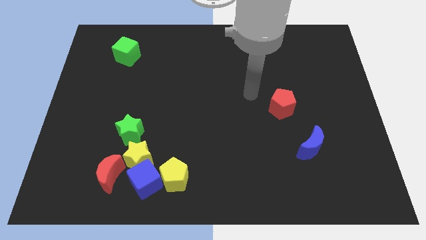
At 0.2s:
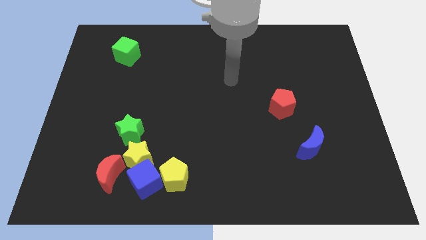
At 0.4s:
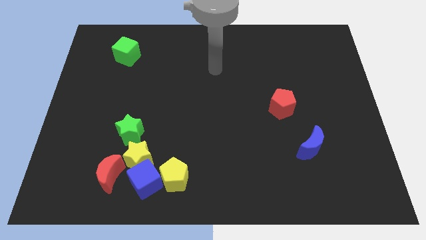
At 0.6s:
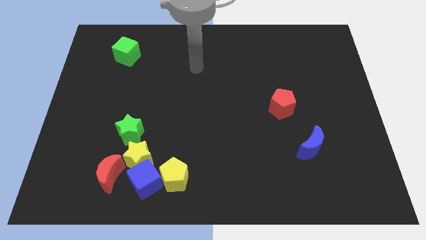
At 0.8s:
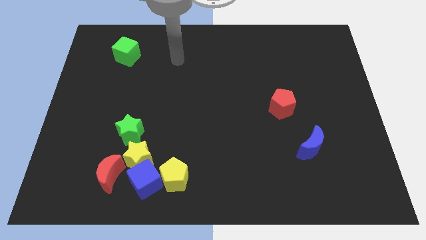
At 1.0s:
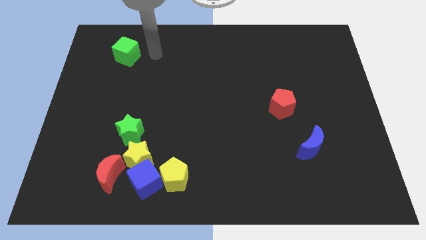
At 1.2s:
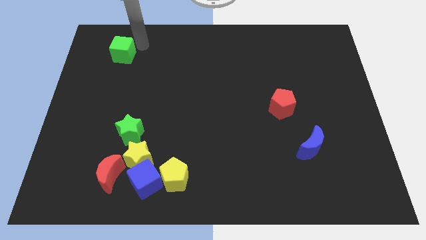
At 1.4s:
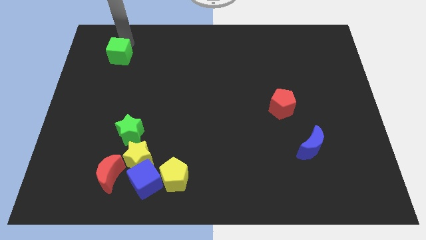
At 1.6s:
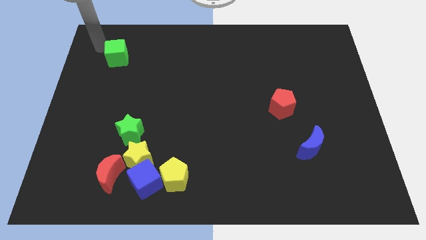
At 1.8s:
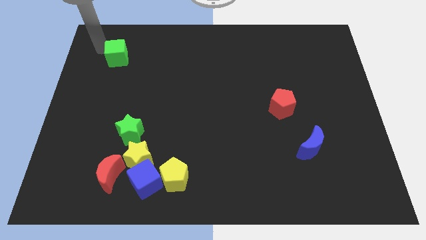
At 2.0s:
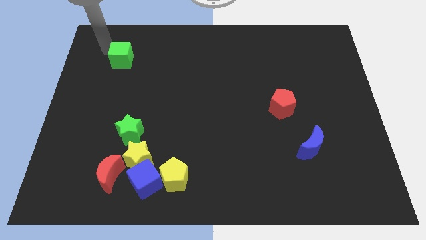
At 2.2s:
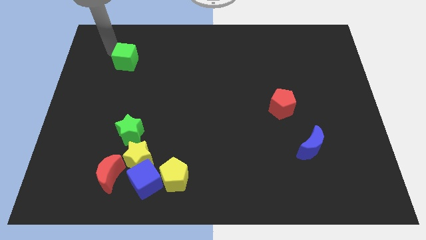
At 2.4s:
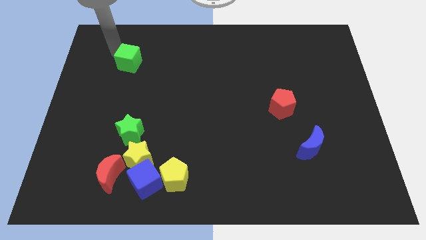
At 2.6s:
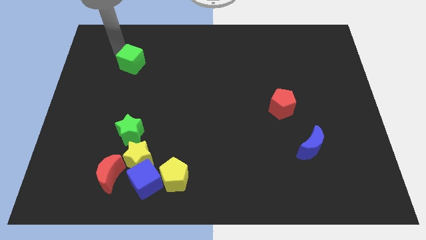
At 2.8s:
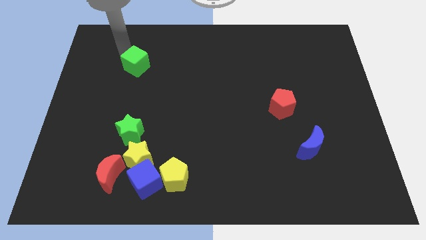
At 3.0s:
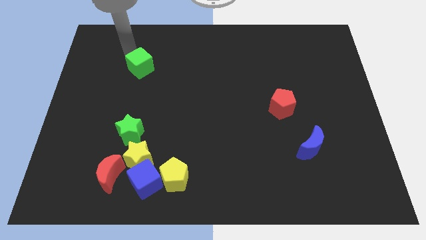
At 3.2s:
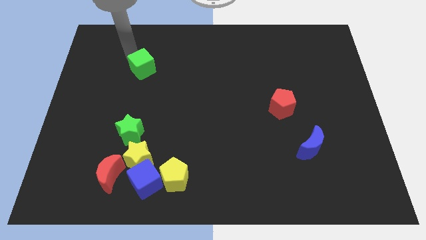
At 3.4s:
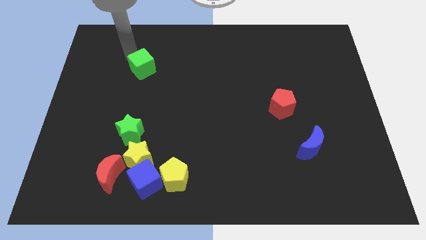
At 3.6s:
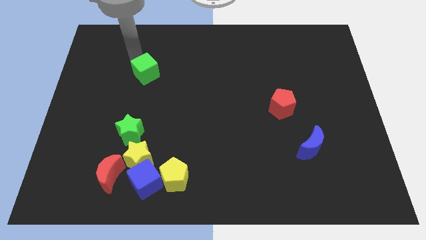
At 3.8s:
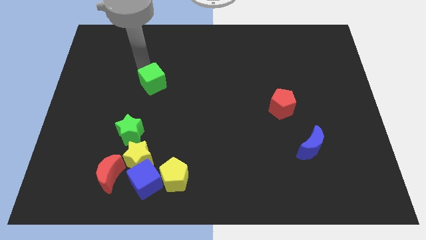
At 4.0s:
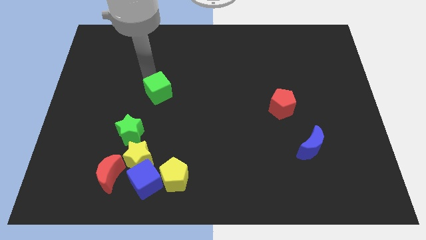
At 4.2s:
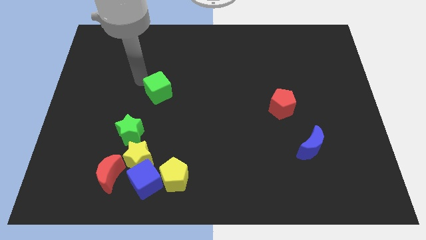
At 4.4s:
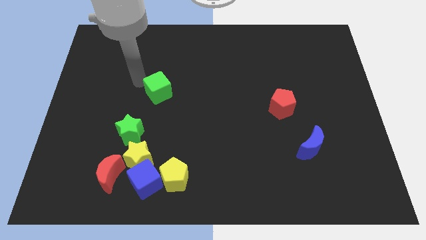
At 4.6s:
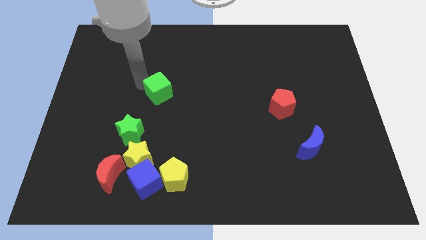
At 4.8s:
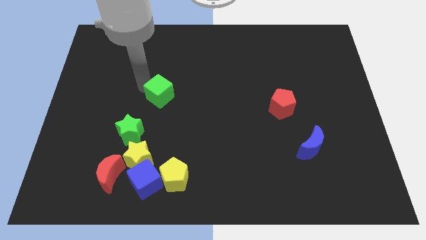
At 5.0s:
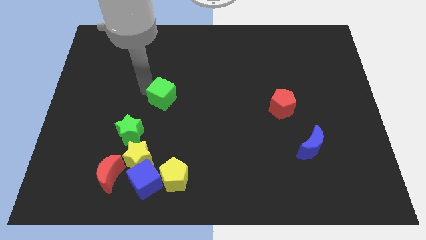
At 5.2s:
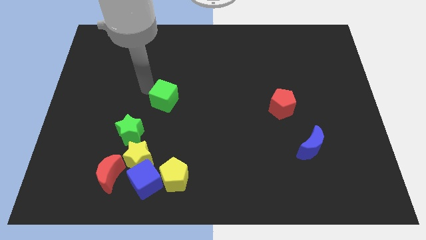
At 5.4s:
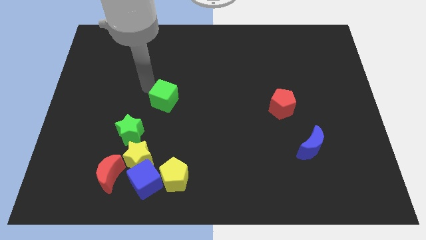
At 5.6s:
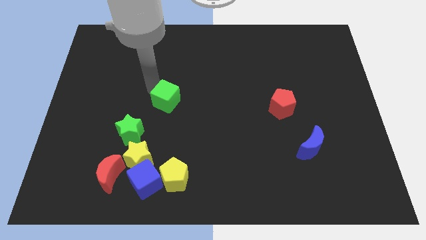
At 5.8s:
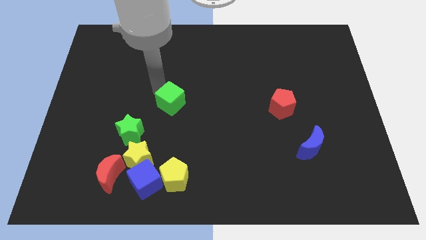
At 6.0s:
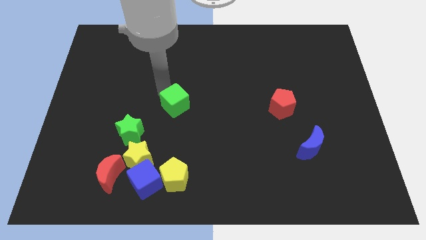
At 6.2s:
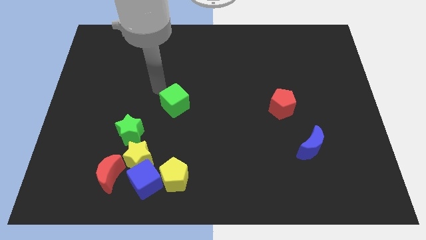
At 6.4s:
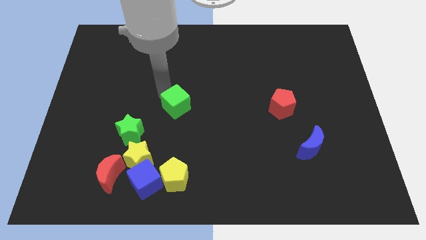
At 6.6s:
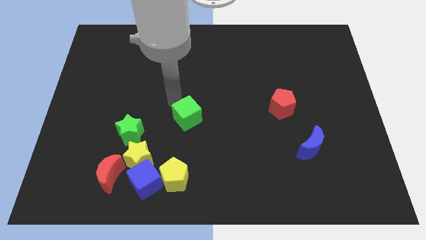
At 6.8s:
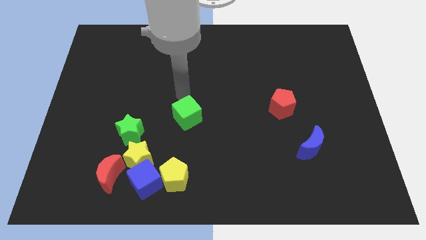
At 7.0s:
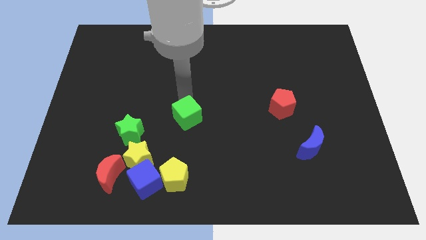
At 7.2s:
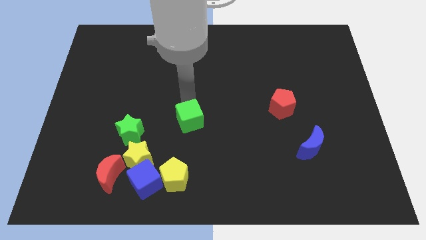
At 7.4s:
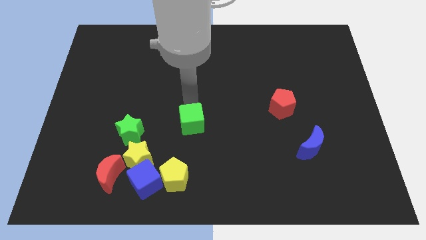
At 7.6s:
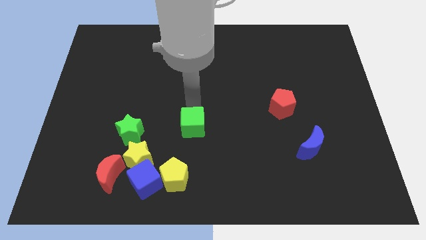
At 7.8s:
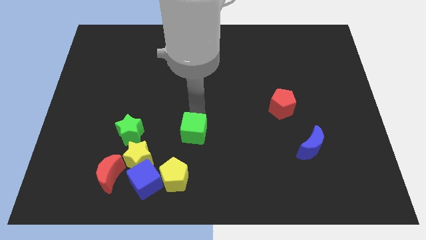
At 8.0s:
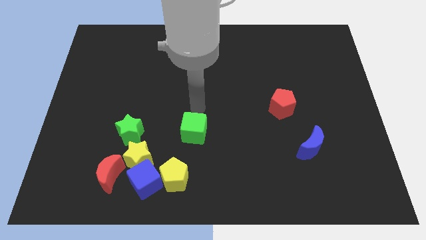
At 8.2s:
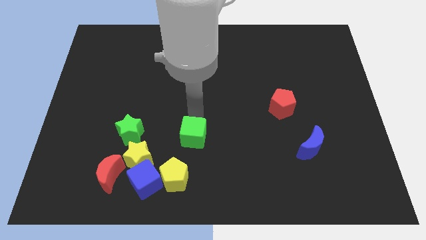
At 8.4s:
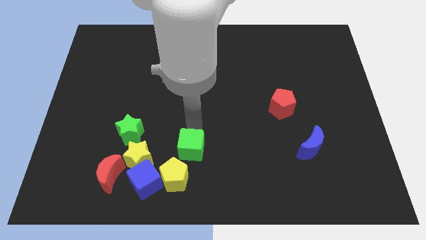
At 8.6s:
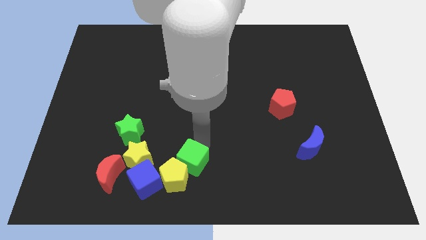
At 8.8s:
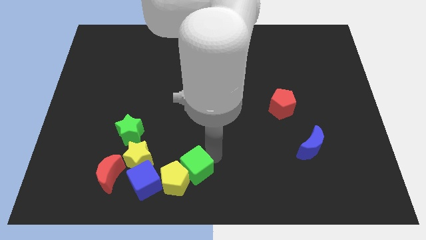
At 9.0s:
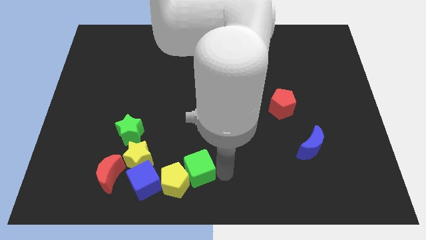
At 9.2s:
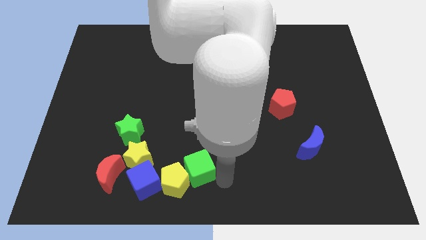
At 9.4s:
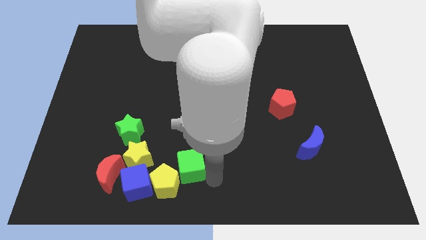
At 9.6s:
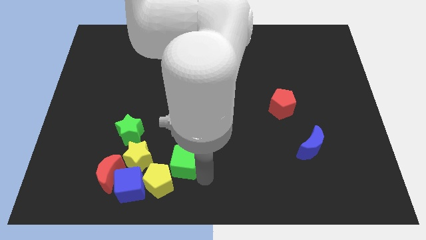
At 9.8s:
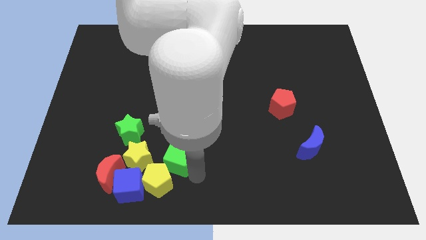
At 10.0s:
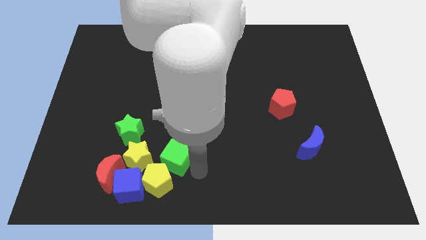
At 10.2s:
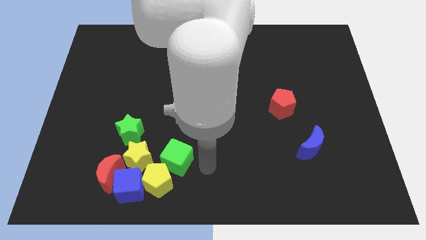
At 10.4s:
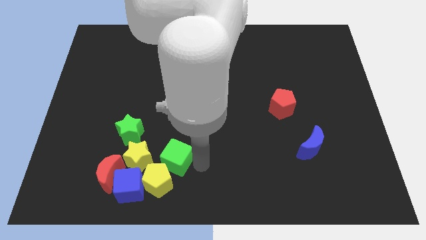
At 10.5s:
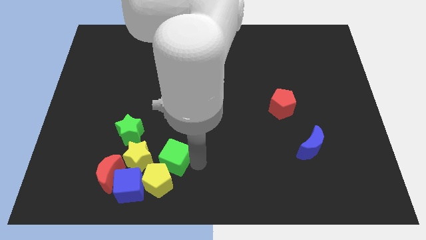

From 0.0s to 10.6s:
slide the green cube diagonally down and to the right of the green star

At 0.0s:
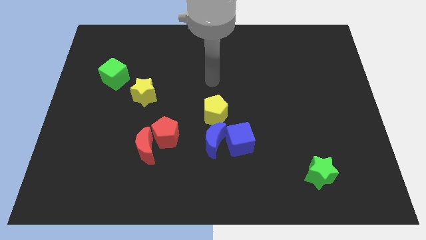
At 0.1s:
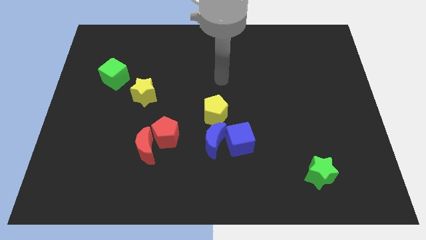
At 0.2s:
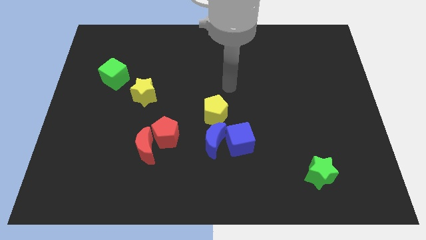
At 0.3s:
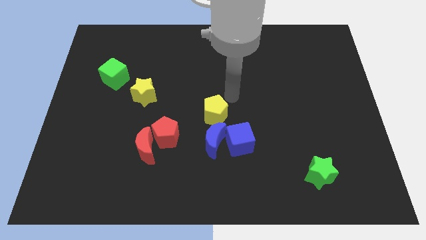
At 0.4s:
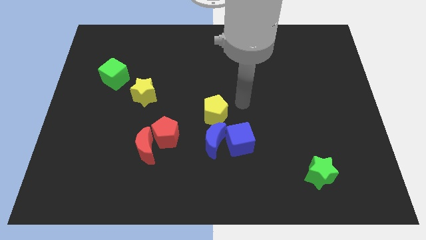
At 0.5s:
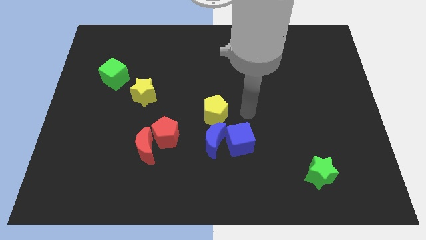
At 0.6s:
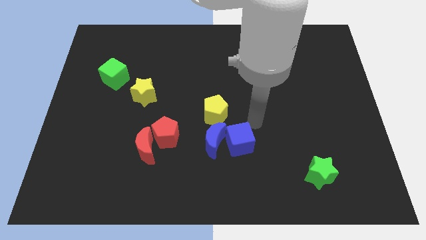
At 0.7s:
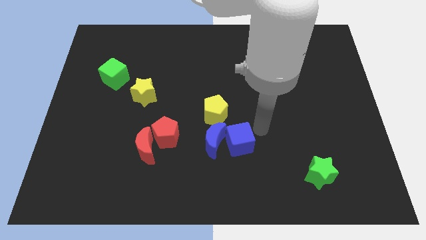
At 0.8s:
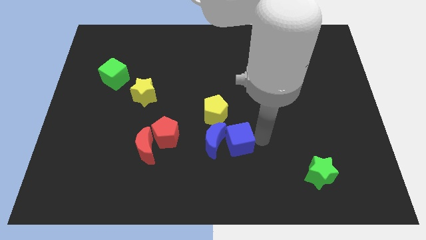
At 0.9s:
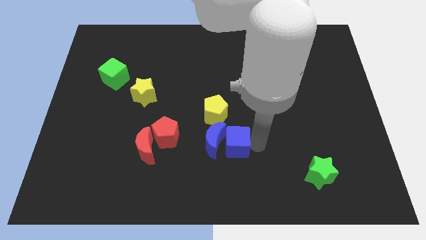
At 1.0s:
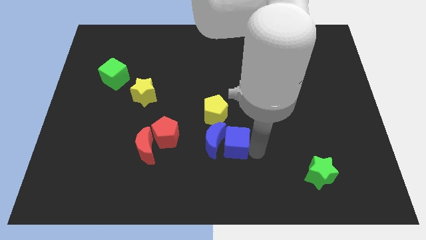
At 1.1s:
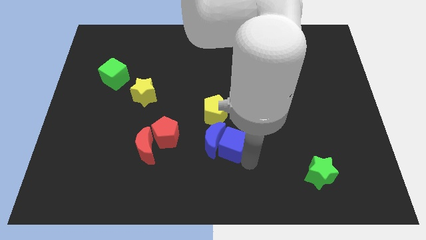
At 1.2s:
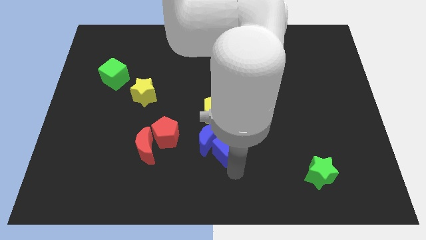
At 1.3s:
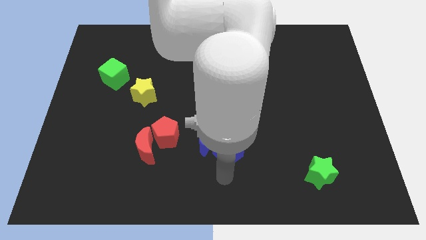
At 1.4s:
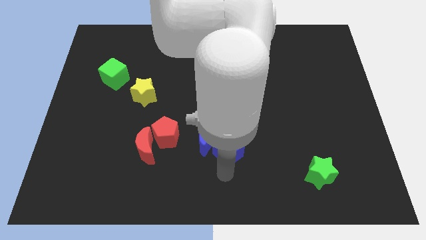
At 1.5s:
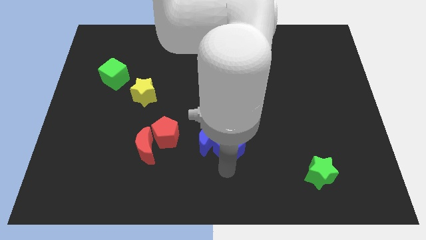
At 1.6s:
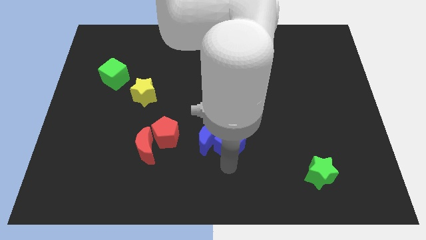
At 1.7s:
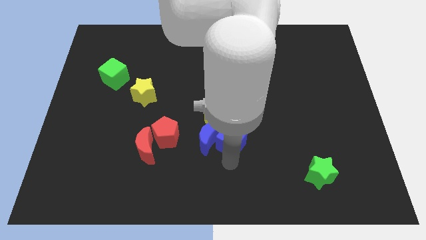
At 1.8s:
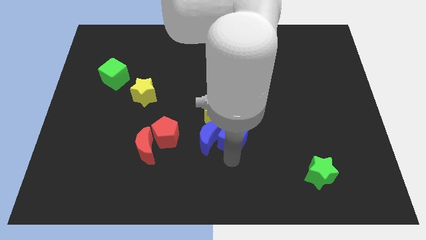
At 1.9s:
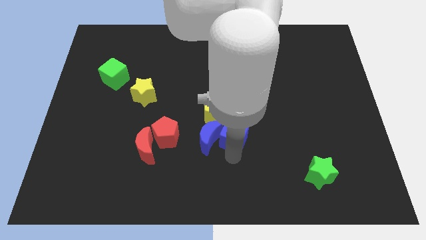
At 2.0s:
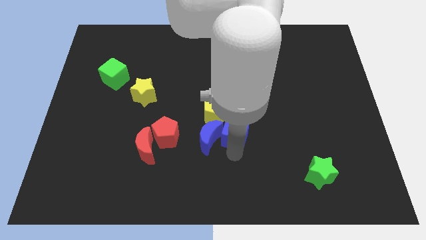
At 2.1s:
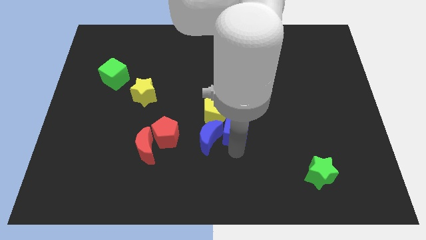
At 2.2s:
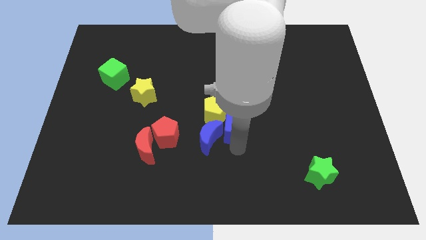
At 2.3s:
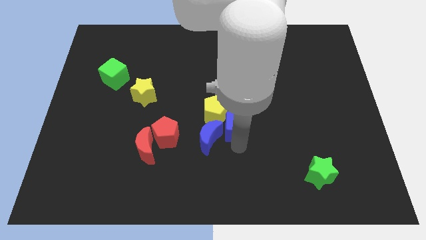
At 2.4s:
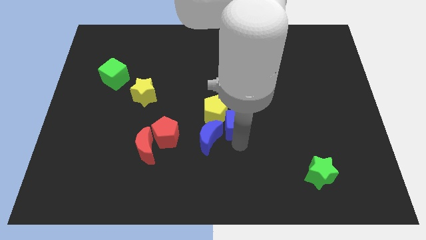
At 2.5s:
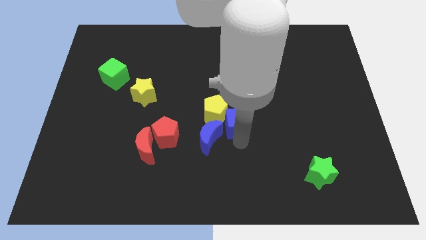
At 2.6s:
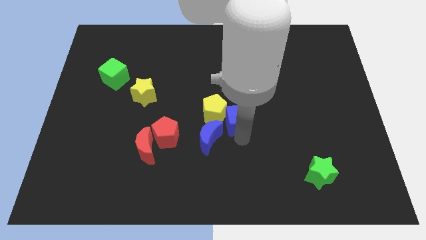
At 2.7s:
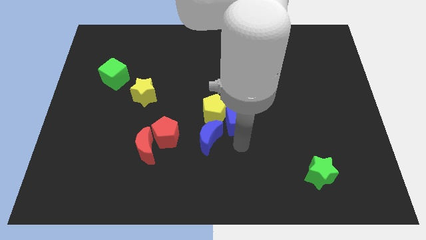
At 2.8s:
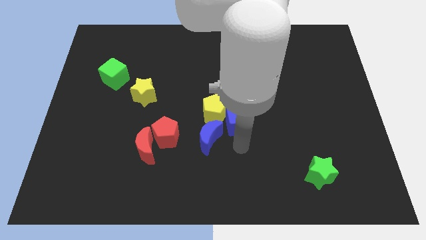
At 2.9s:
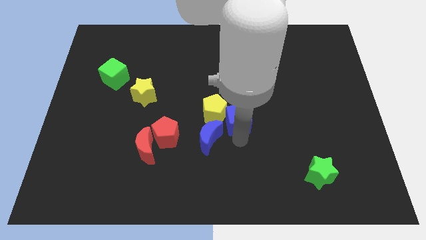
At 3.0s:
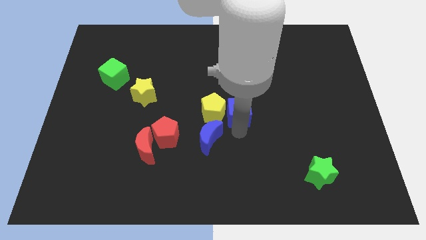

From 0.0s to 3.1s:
push the blue cube diagonally up and to the right of the yellow pentagon
